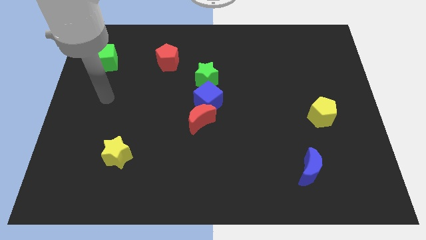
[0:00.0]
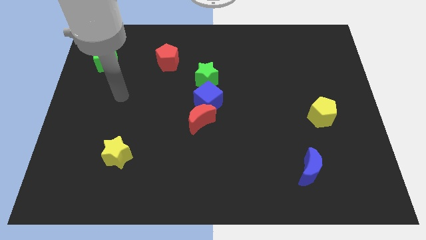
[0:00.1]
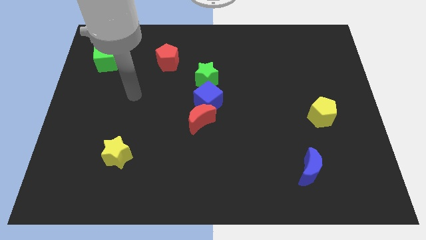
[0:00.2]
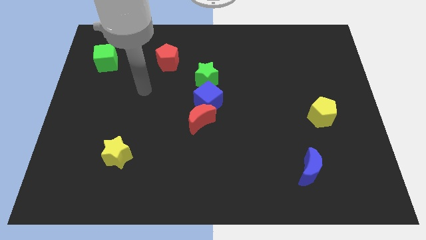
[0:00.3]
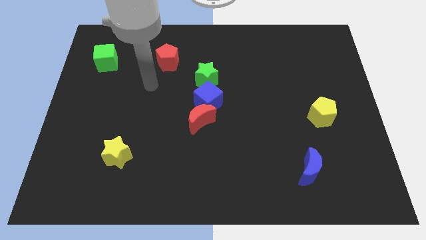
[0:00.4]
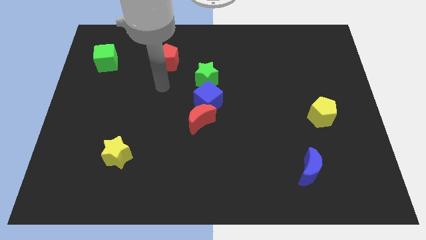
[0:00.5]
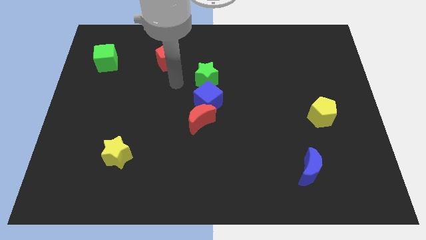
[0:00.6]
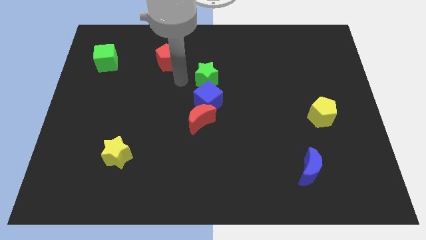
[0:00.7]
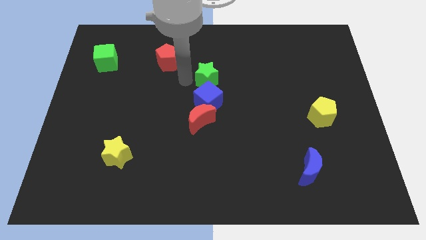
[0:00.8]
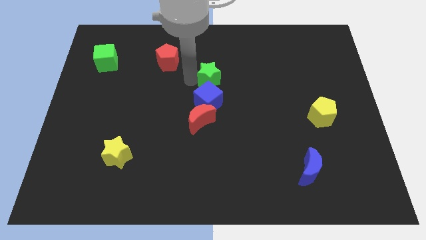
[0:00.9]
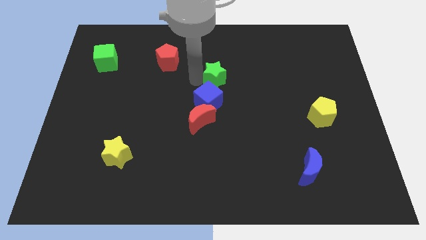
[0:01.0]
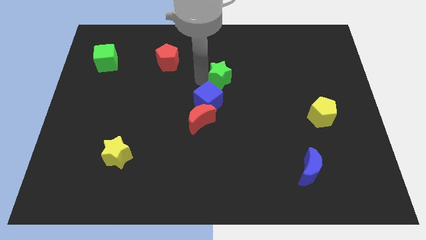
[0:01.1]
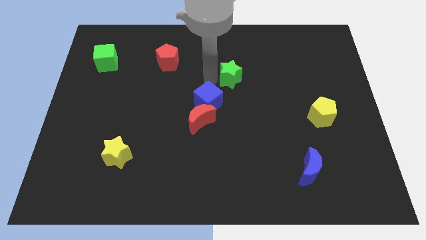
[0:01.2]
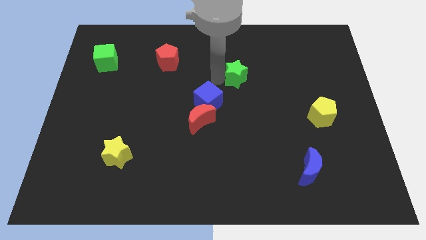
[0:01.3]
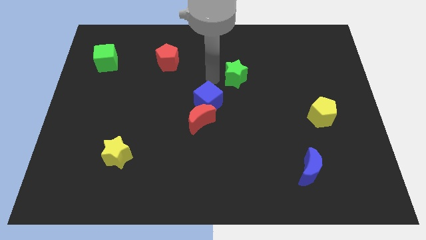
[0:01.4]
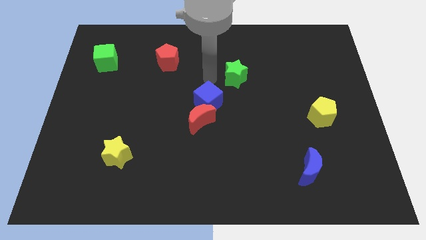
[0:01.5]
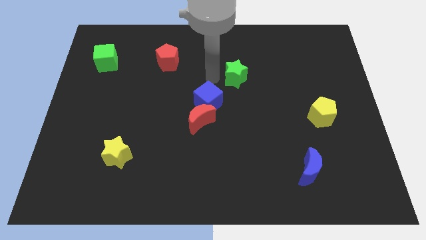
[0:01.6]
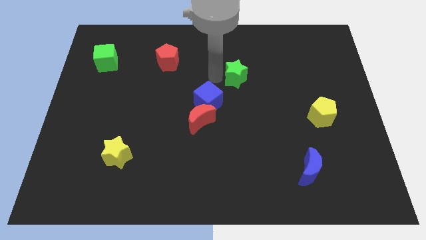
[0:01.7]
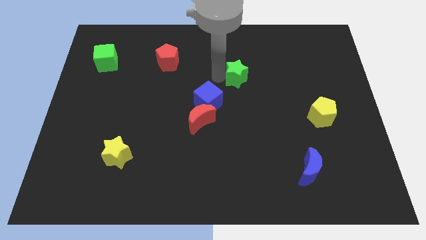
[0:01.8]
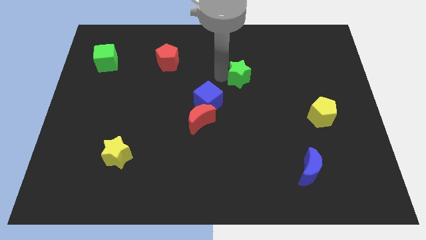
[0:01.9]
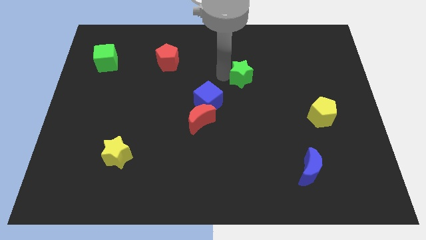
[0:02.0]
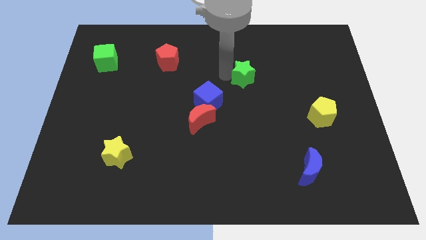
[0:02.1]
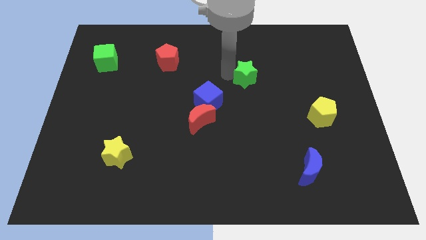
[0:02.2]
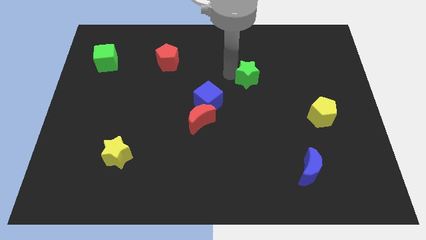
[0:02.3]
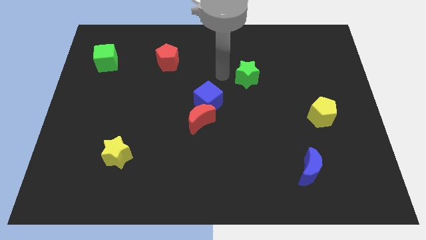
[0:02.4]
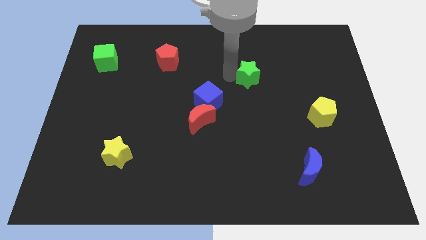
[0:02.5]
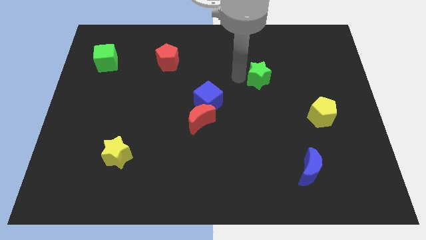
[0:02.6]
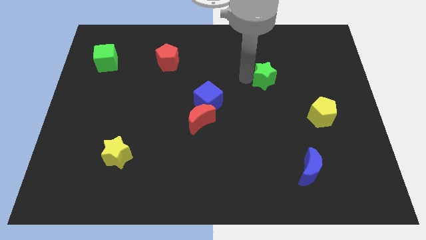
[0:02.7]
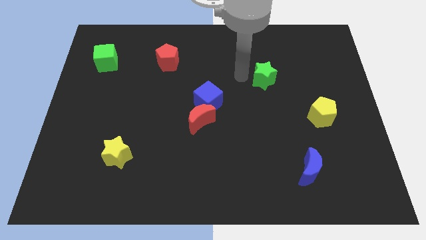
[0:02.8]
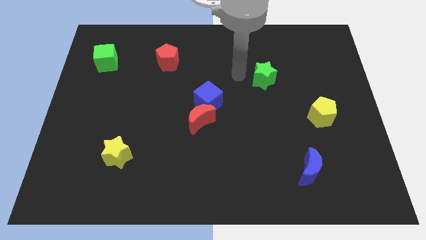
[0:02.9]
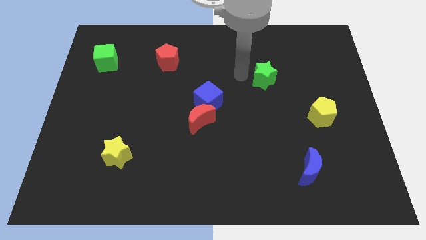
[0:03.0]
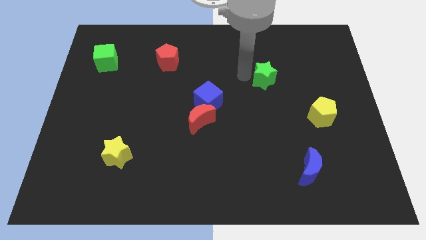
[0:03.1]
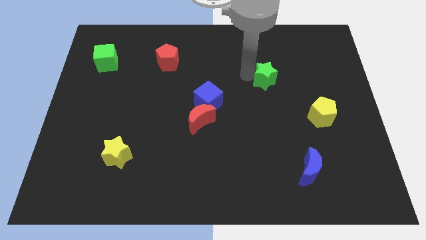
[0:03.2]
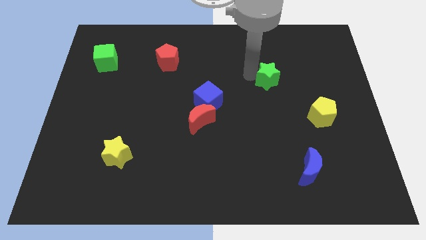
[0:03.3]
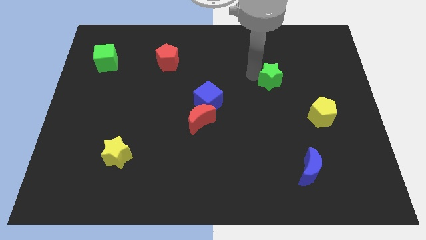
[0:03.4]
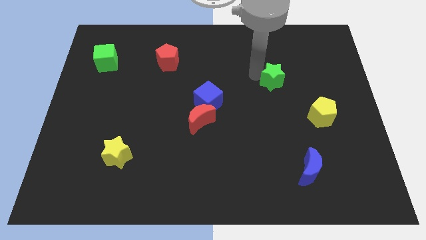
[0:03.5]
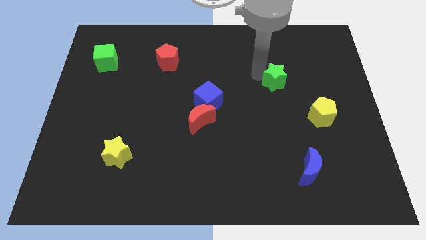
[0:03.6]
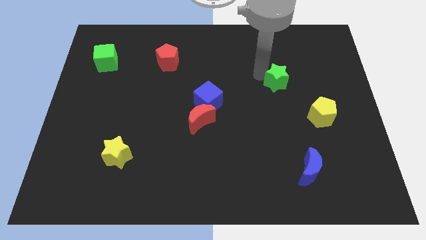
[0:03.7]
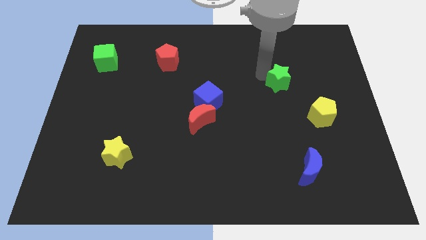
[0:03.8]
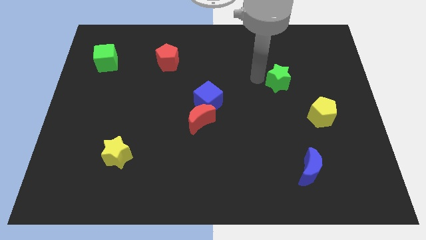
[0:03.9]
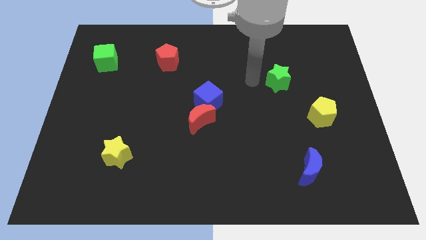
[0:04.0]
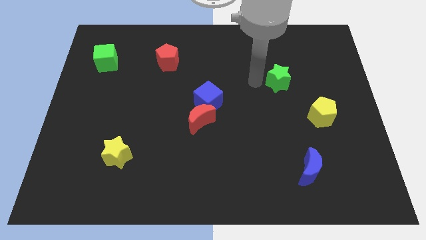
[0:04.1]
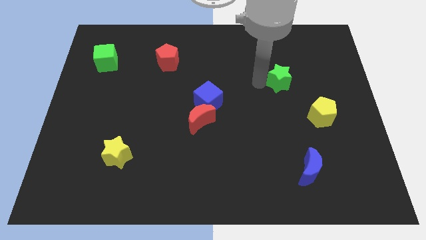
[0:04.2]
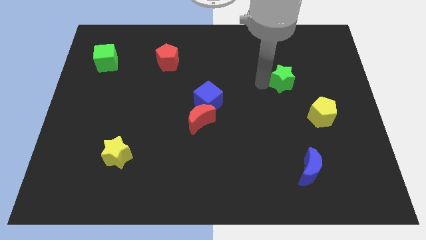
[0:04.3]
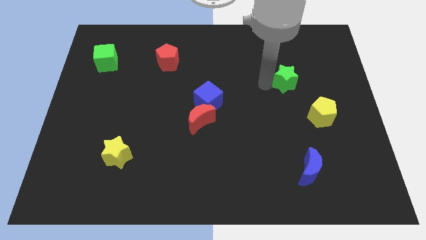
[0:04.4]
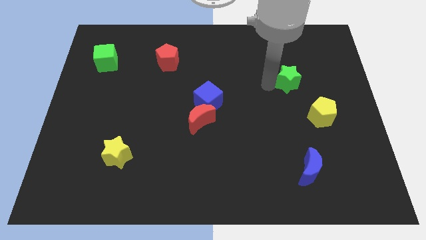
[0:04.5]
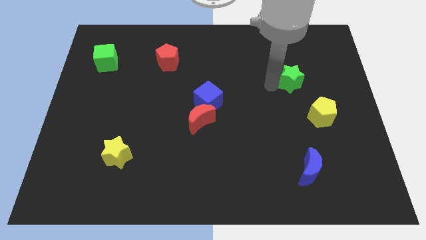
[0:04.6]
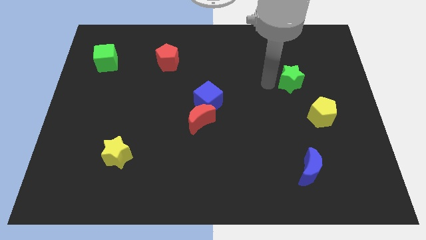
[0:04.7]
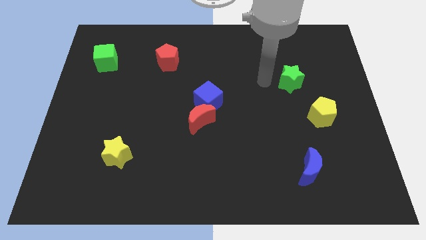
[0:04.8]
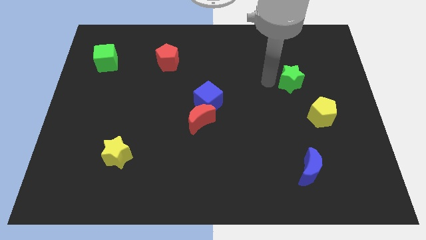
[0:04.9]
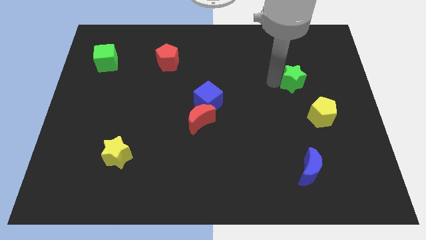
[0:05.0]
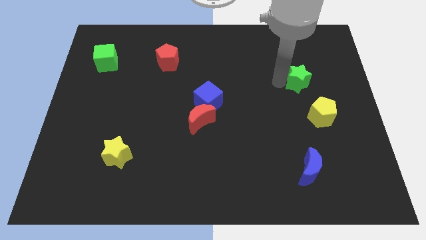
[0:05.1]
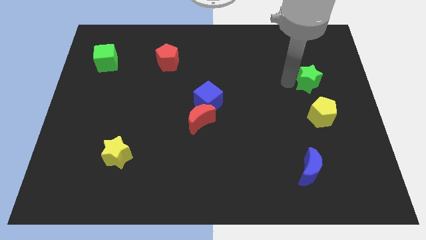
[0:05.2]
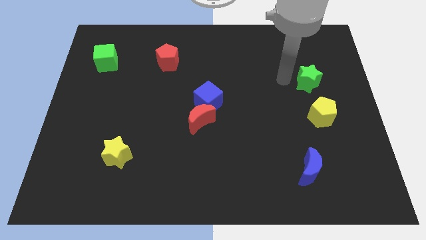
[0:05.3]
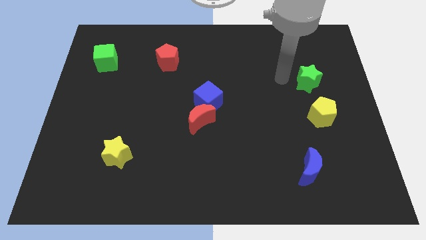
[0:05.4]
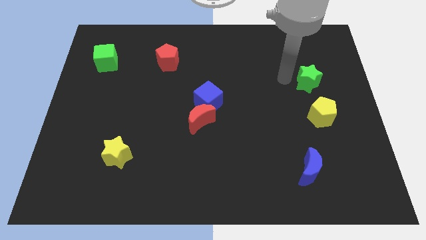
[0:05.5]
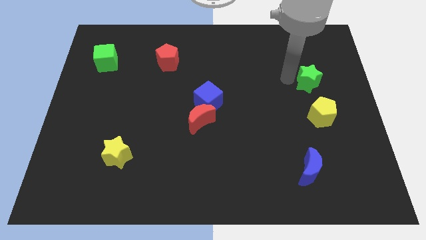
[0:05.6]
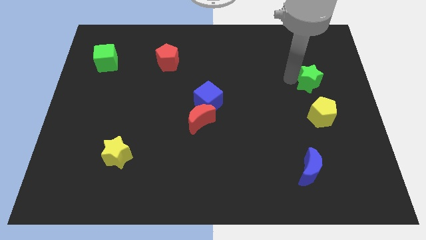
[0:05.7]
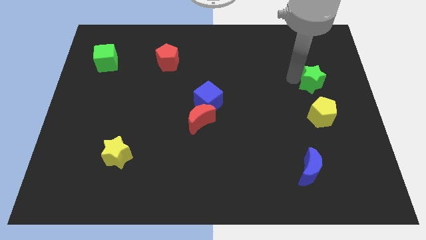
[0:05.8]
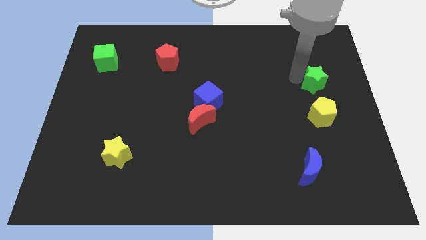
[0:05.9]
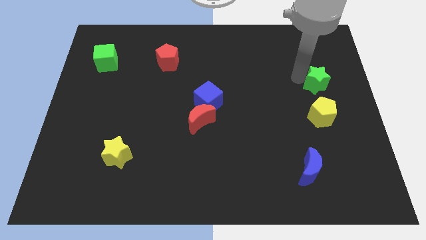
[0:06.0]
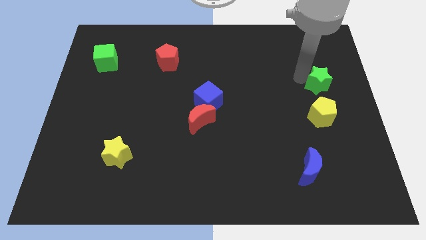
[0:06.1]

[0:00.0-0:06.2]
slide the green star to the right side

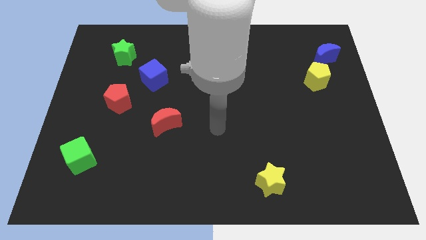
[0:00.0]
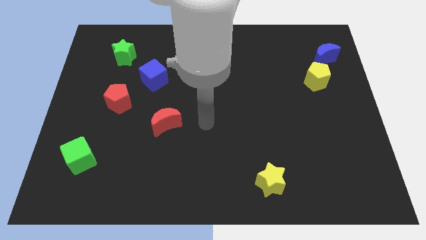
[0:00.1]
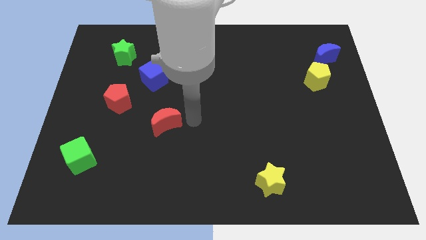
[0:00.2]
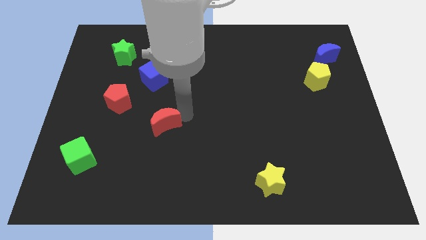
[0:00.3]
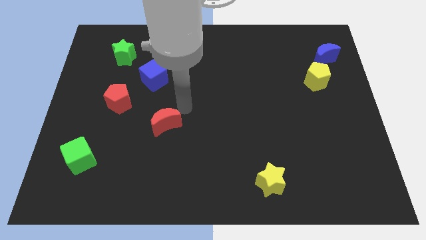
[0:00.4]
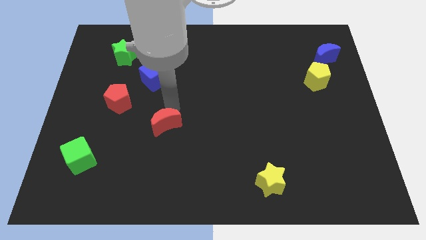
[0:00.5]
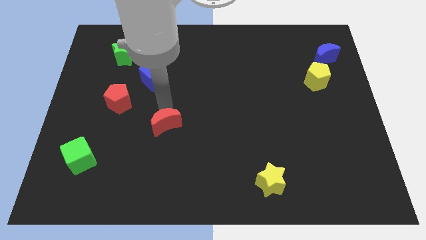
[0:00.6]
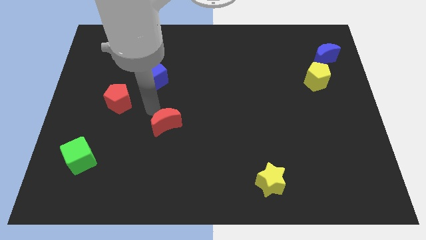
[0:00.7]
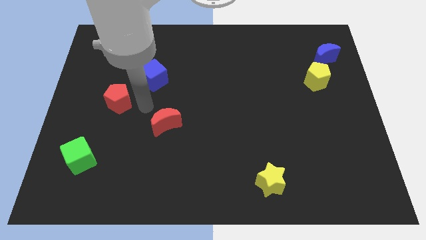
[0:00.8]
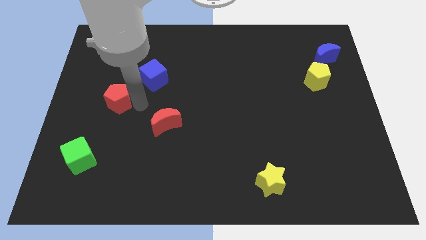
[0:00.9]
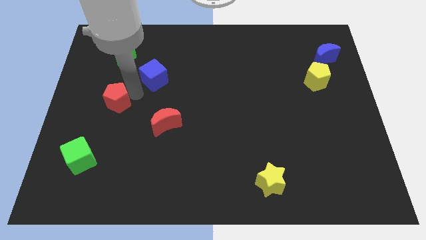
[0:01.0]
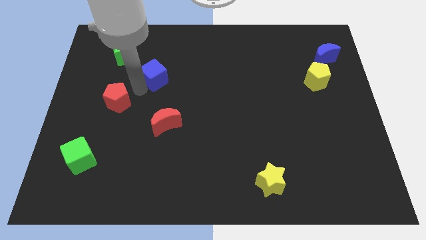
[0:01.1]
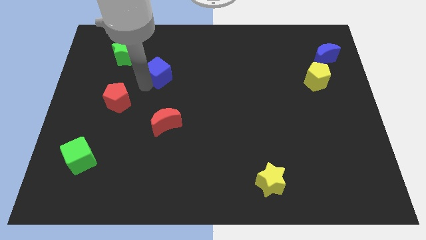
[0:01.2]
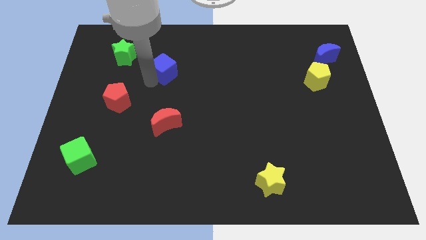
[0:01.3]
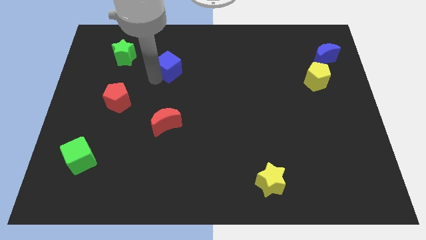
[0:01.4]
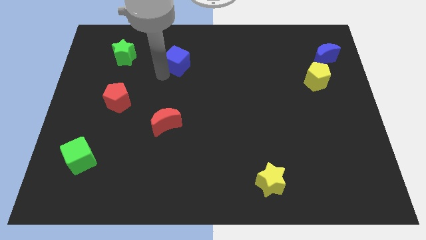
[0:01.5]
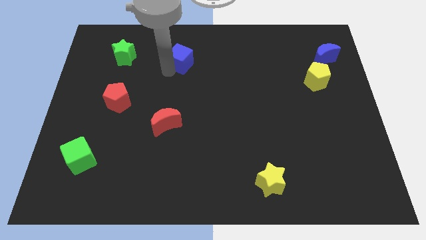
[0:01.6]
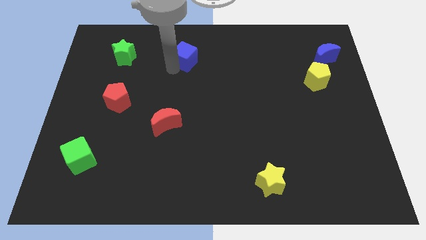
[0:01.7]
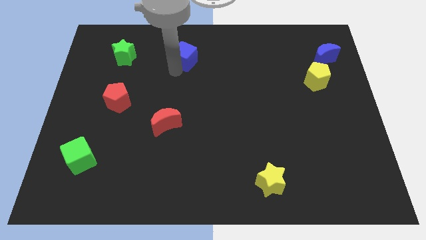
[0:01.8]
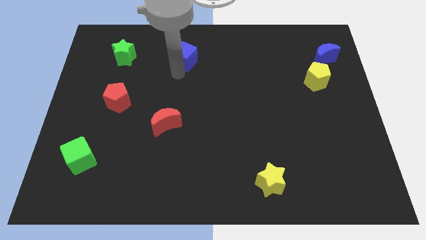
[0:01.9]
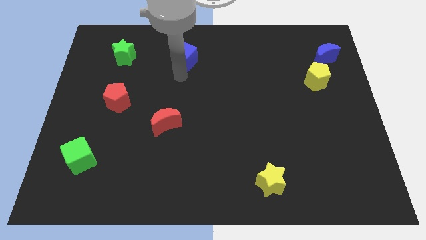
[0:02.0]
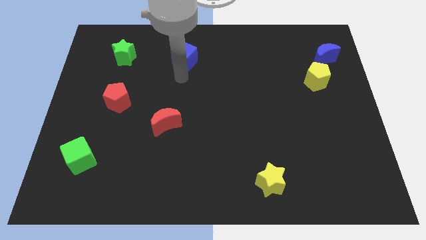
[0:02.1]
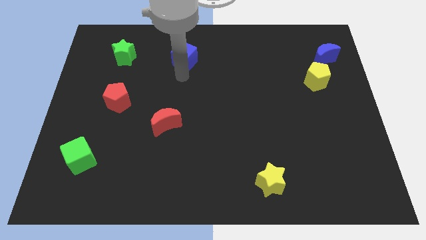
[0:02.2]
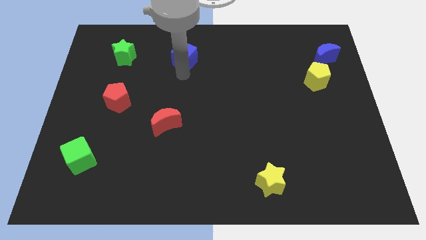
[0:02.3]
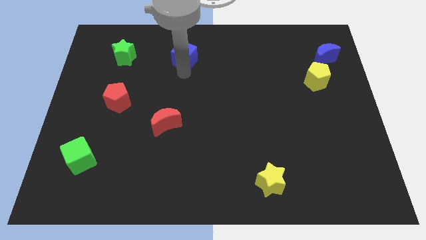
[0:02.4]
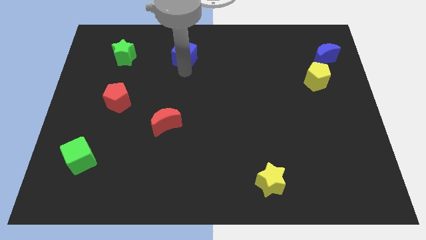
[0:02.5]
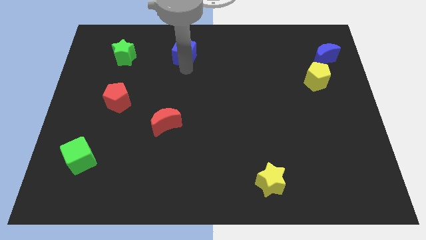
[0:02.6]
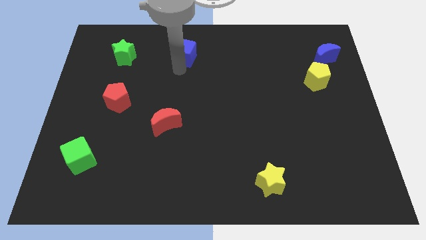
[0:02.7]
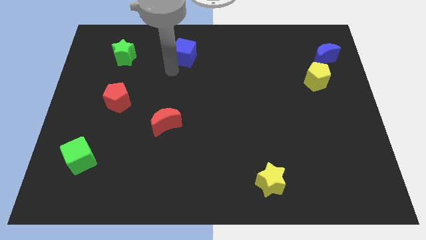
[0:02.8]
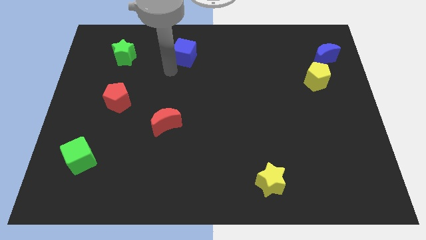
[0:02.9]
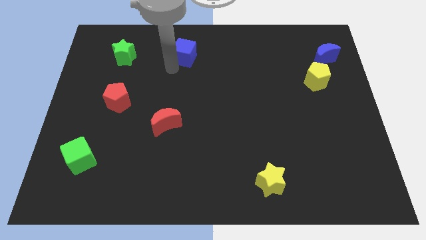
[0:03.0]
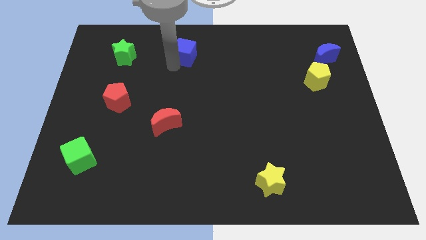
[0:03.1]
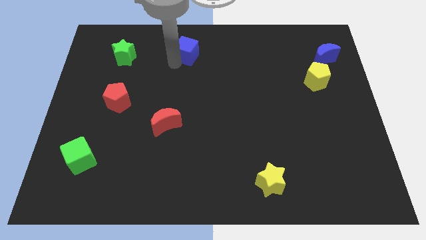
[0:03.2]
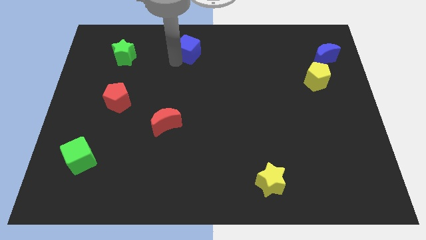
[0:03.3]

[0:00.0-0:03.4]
push the blue cube to the towards your base
